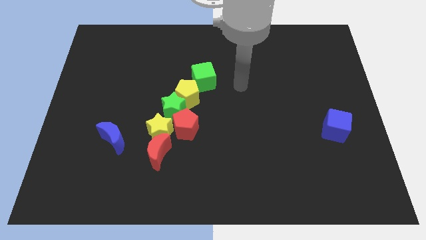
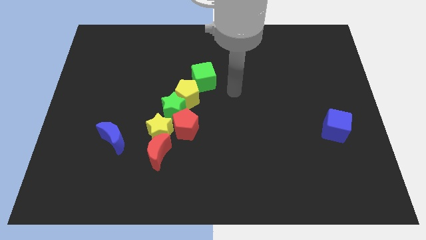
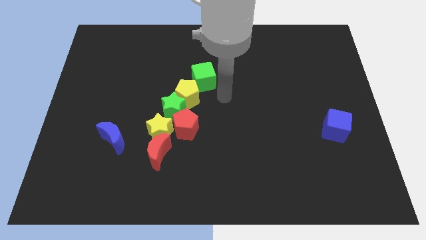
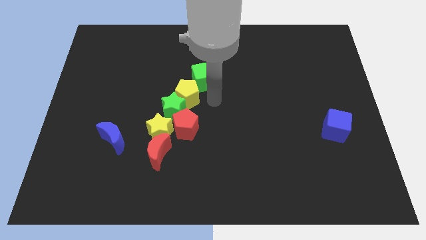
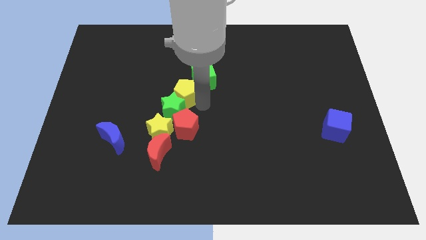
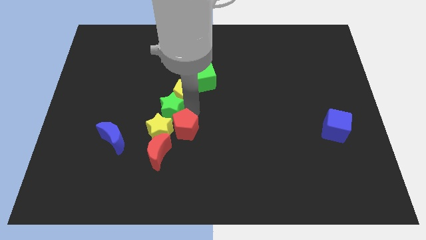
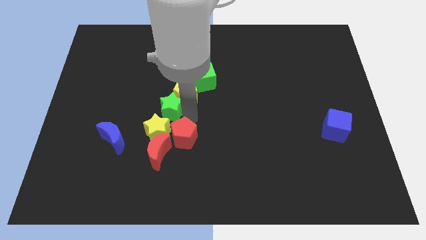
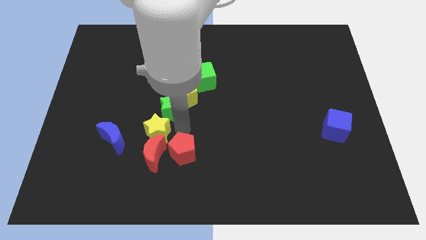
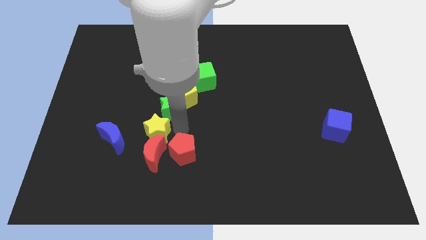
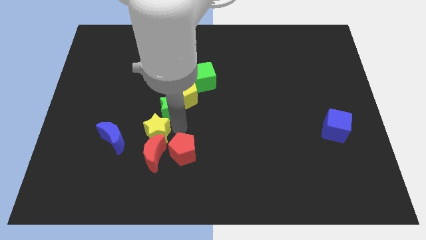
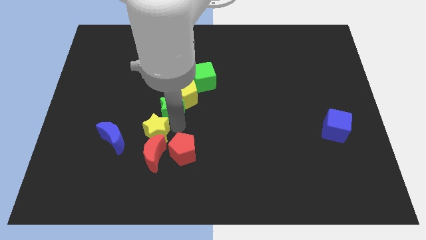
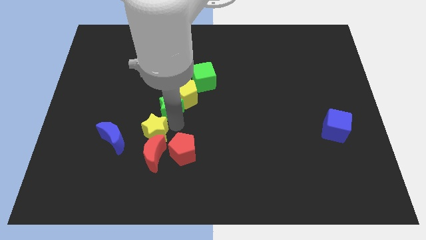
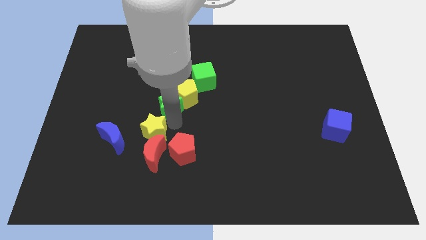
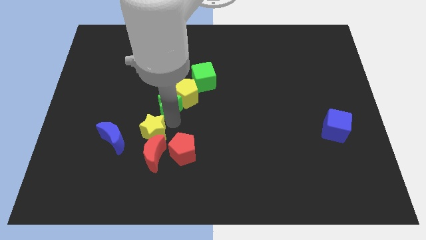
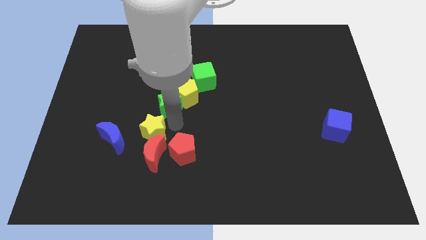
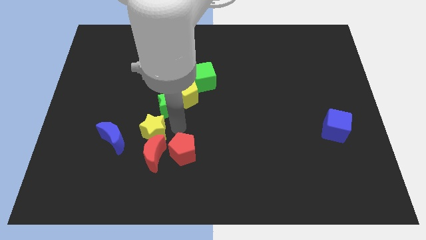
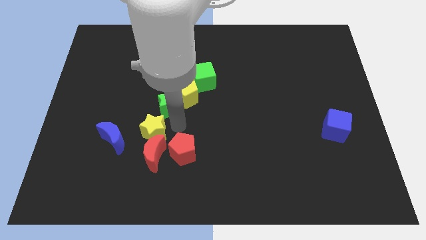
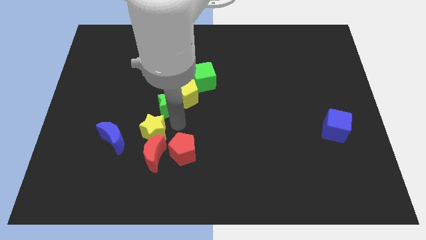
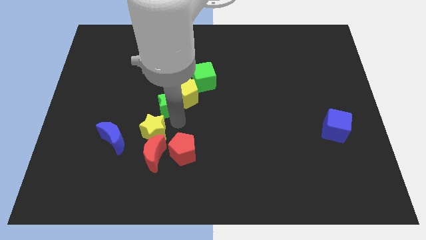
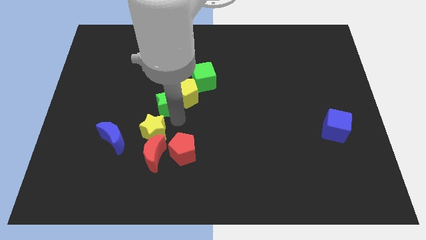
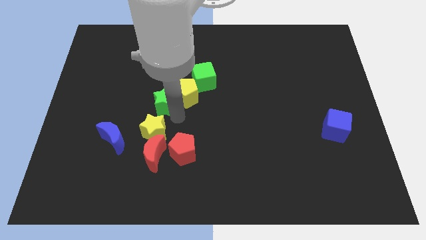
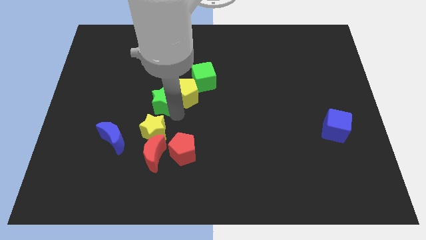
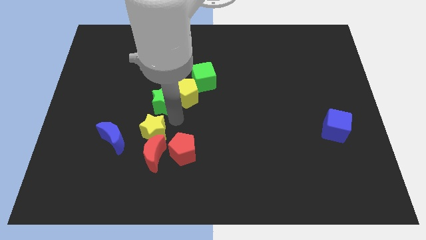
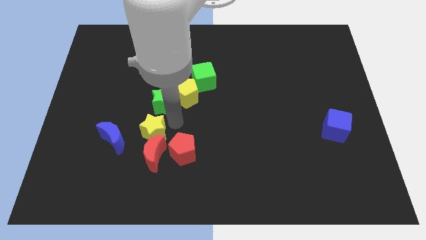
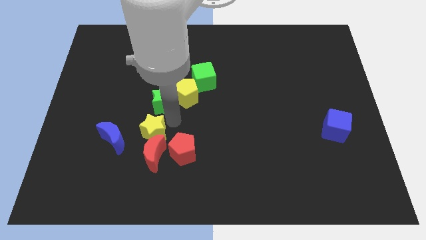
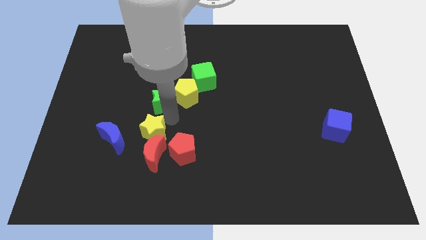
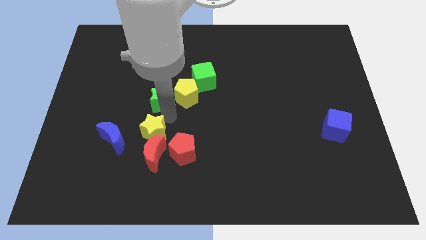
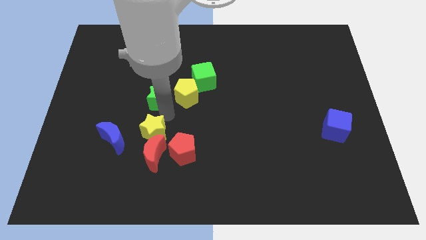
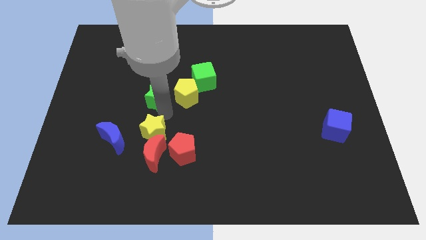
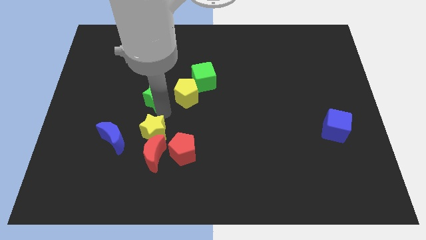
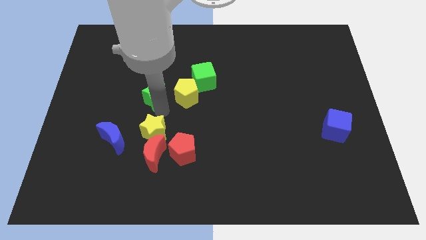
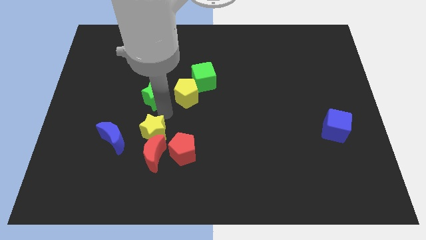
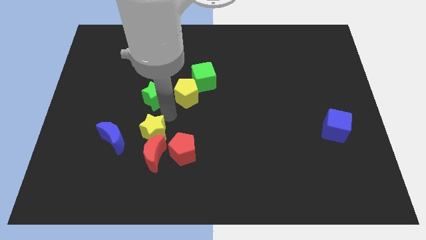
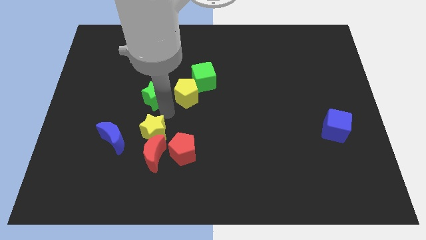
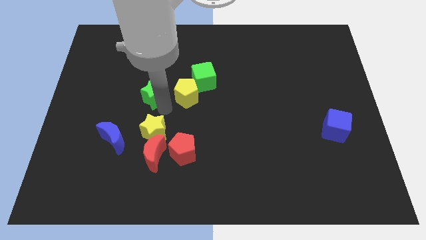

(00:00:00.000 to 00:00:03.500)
move the green star away from the group of blocks

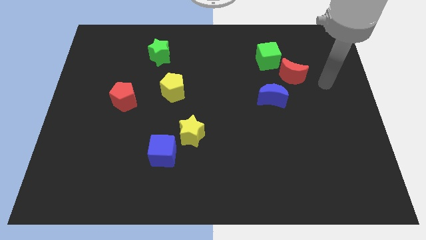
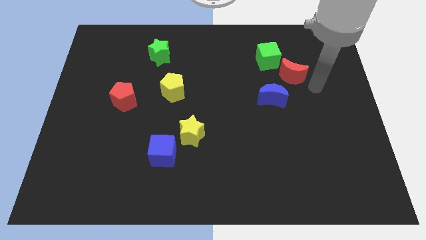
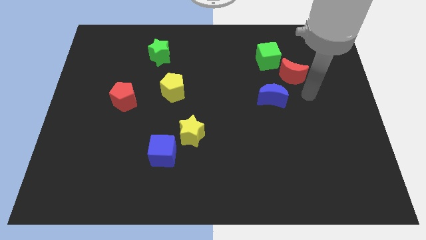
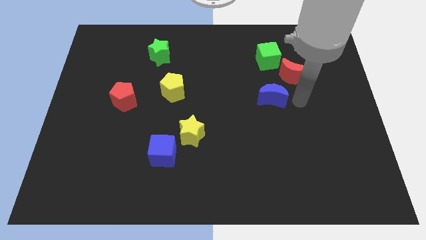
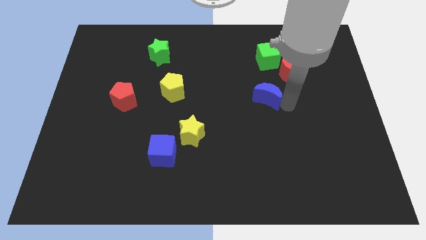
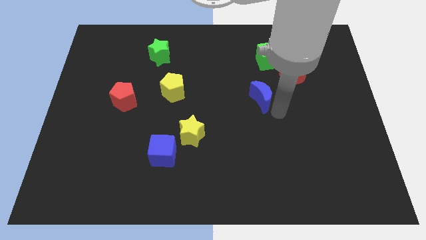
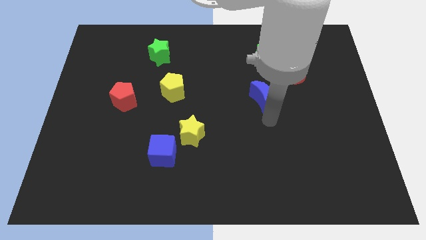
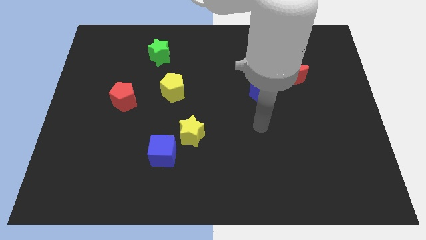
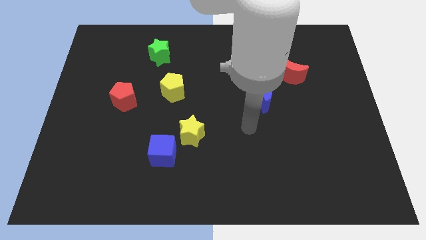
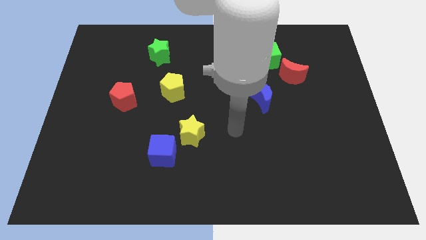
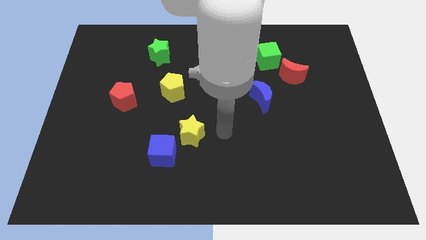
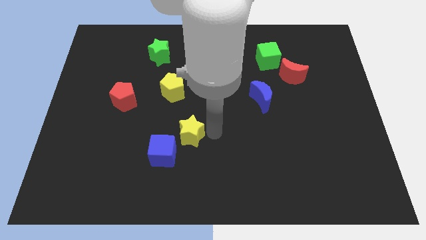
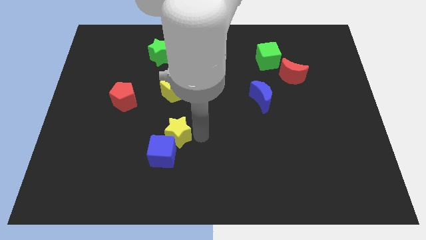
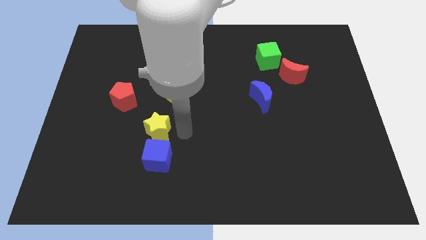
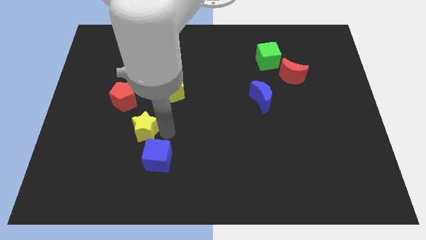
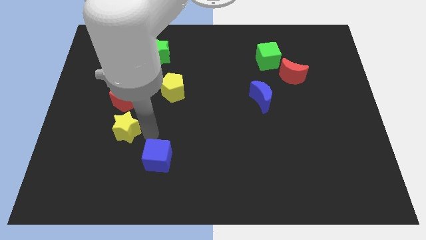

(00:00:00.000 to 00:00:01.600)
separate the blue cube from the yellow star

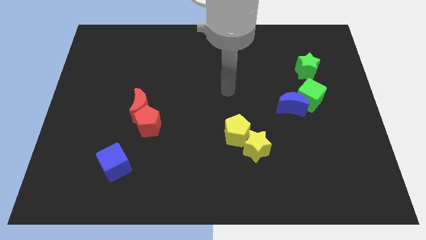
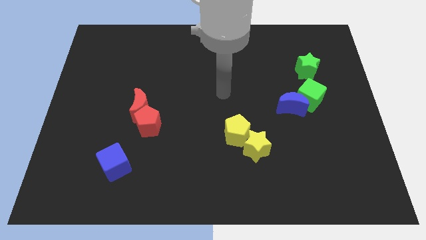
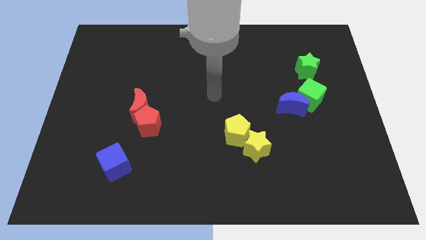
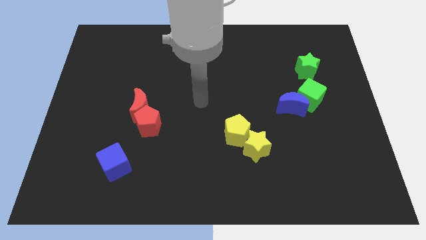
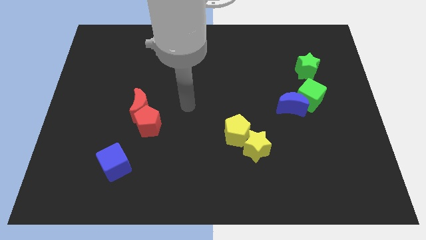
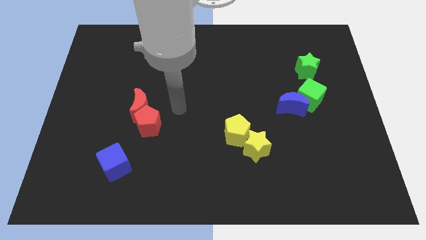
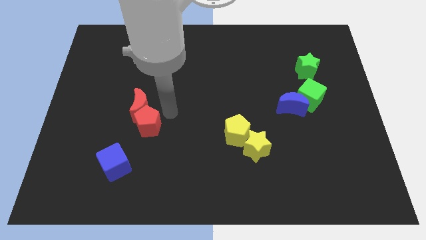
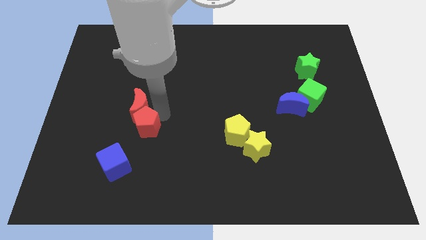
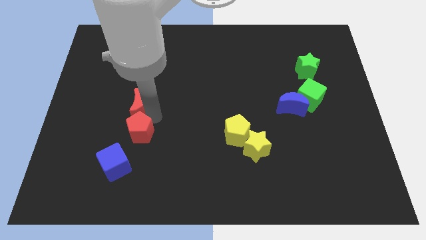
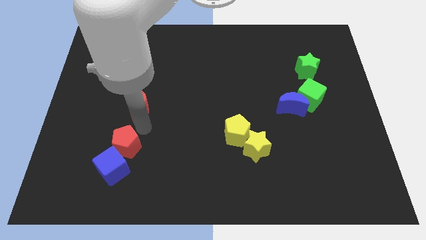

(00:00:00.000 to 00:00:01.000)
separate the red moon from the red pentagon

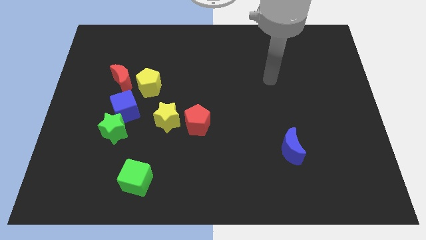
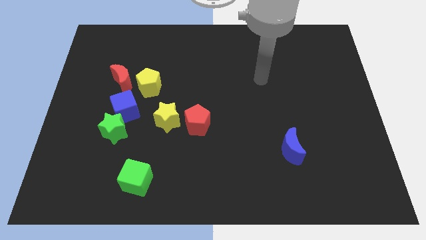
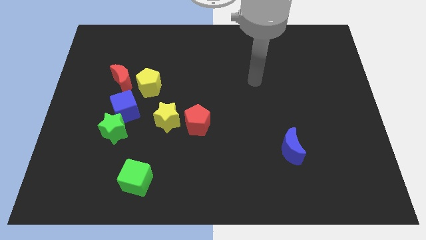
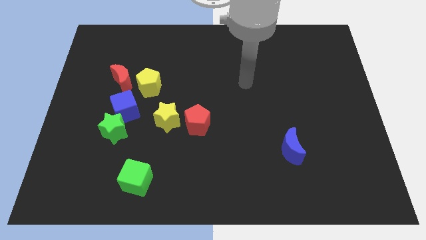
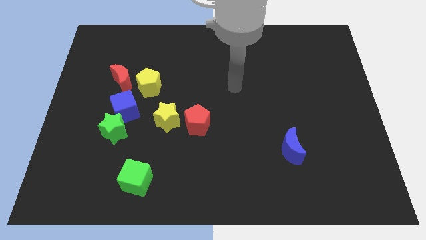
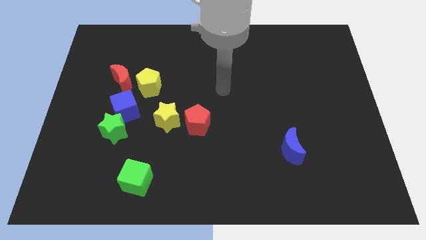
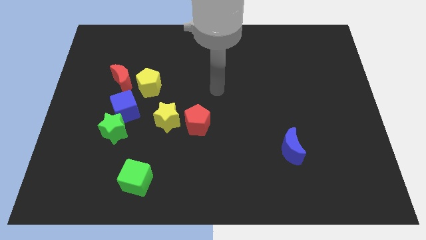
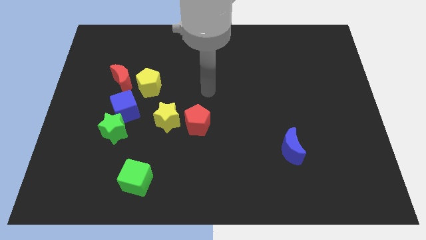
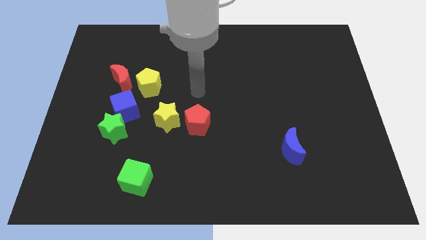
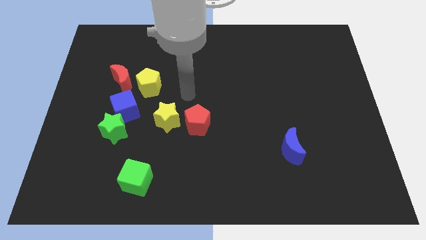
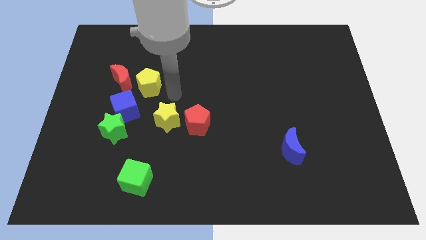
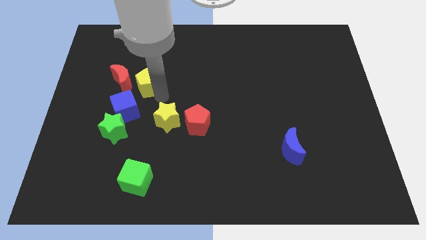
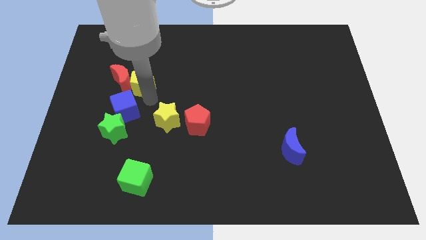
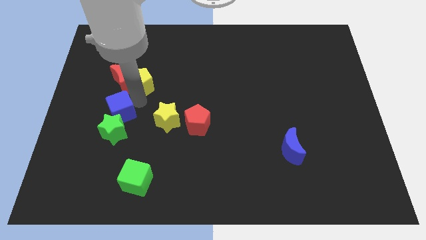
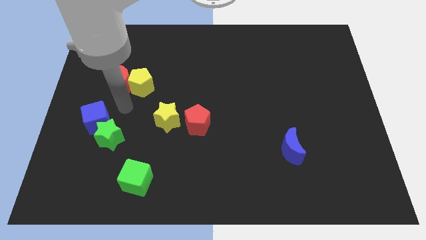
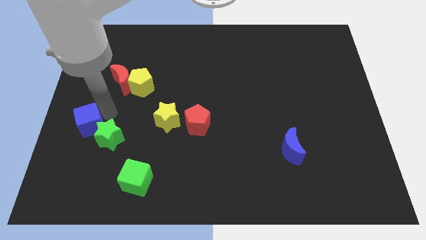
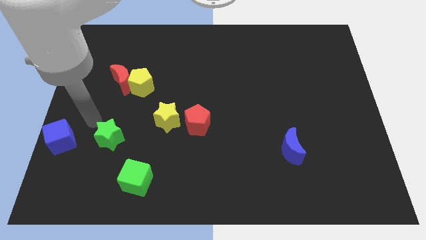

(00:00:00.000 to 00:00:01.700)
pull the green star apart from the blue cube

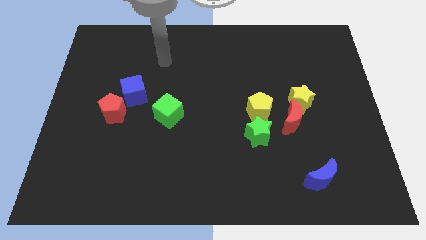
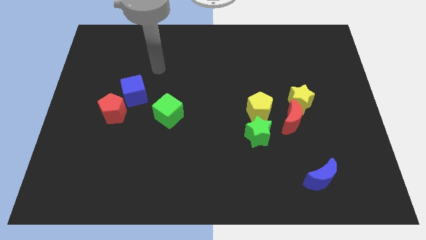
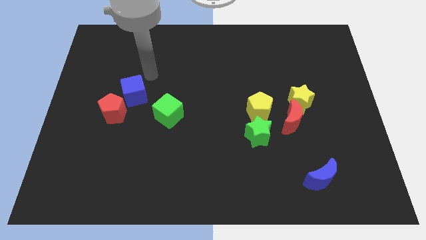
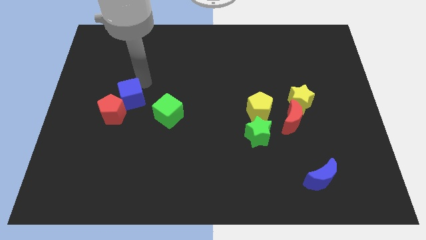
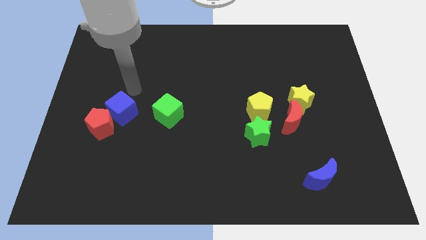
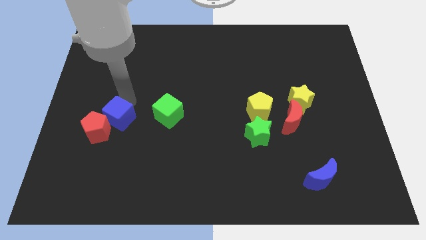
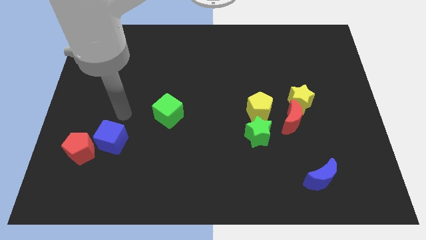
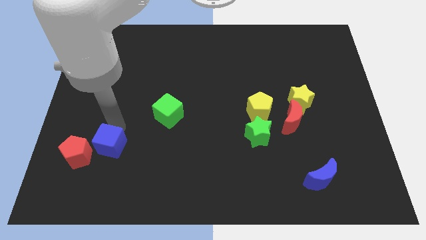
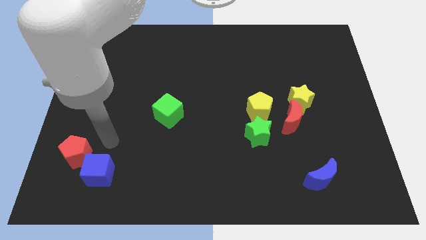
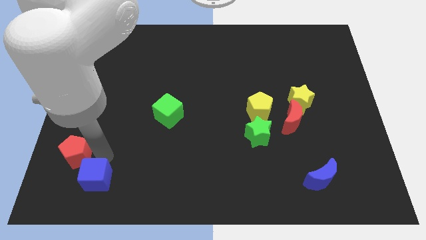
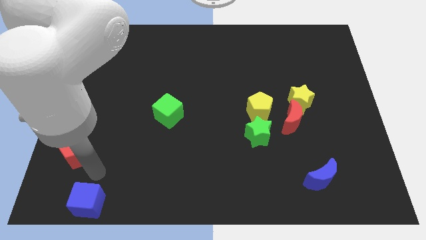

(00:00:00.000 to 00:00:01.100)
separate the red pentagon from the blue cube

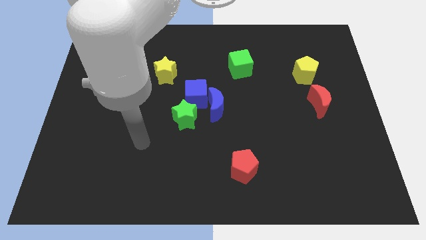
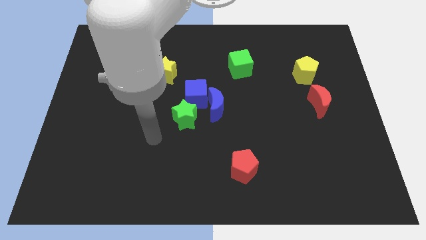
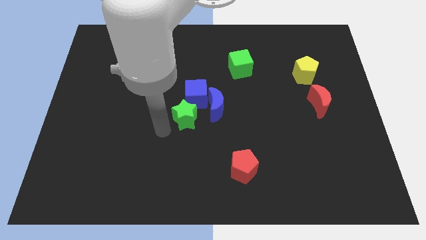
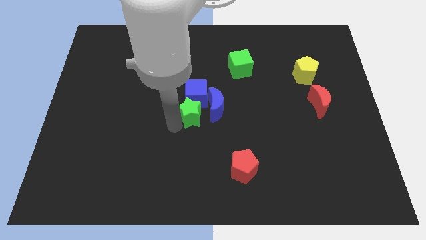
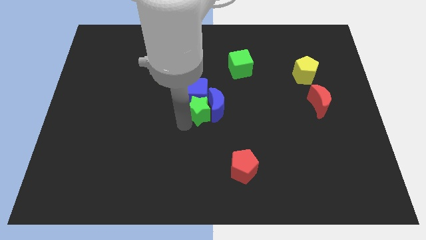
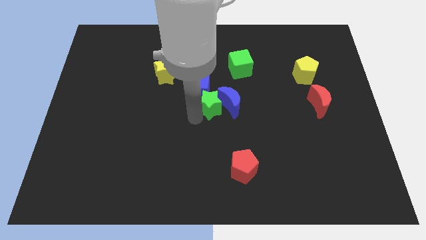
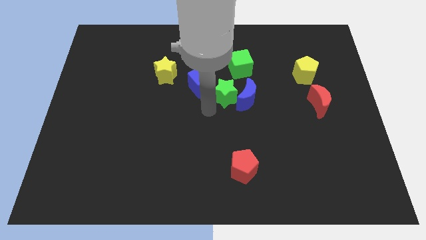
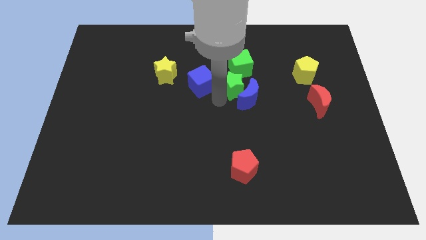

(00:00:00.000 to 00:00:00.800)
separate the blue cube from the blue moon and green star
